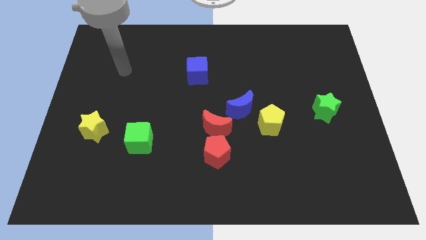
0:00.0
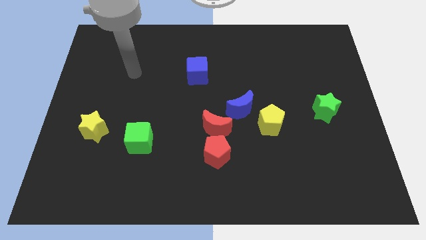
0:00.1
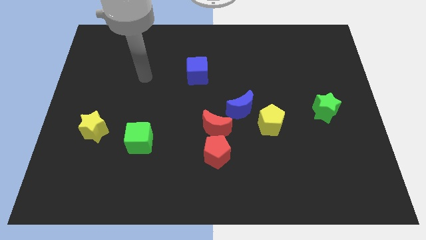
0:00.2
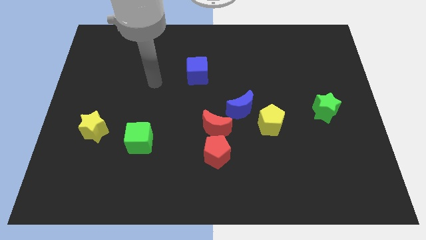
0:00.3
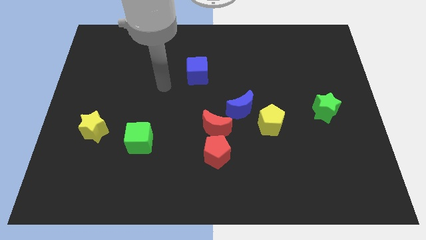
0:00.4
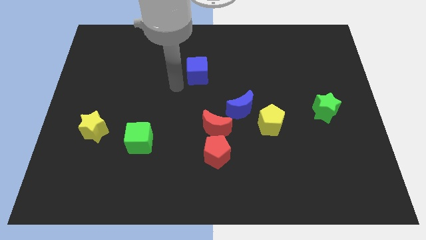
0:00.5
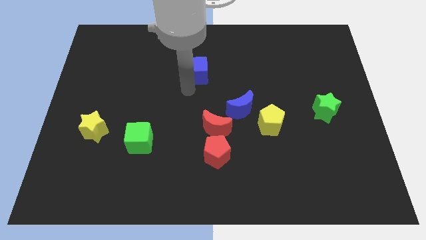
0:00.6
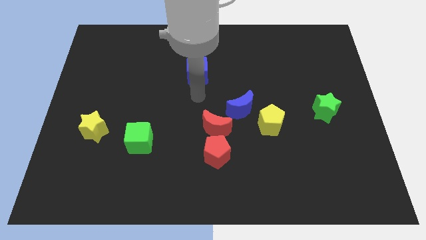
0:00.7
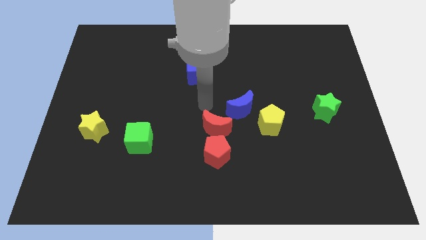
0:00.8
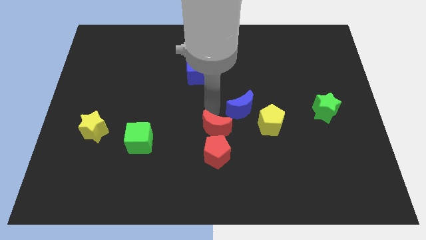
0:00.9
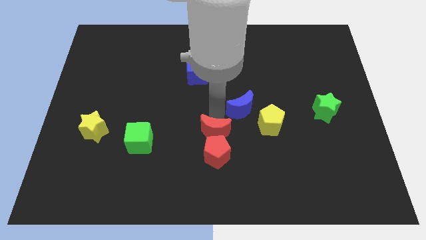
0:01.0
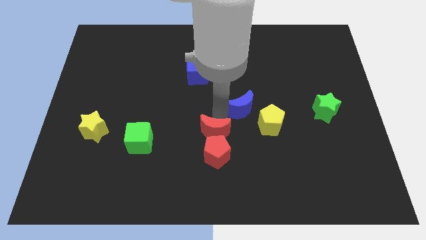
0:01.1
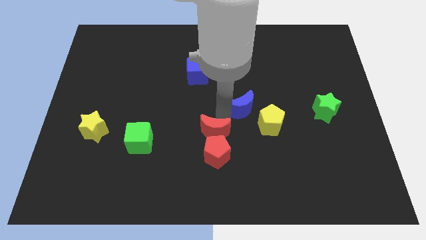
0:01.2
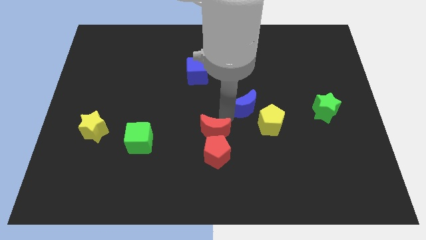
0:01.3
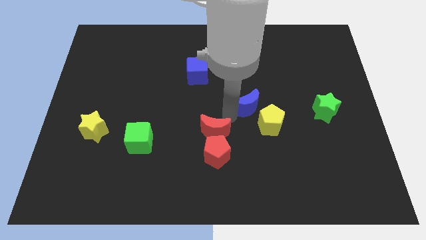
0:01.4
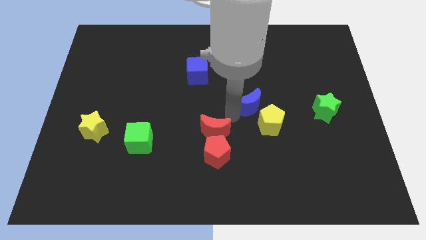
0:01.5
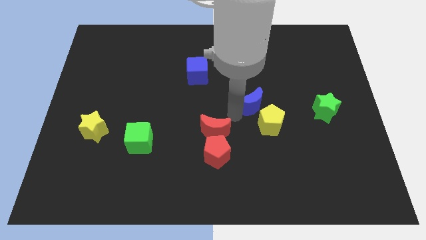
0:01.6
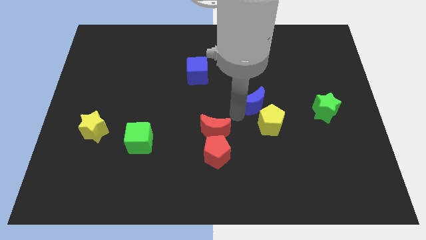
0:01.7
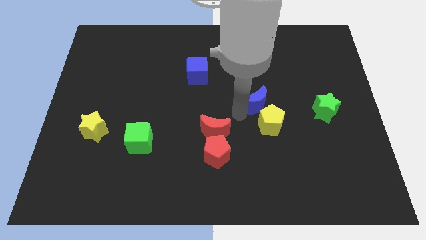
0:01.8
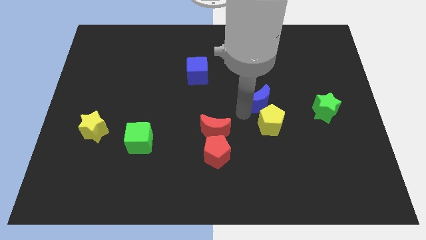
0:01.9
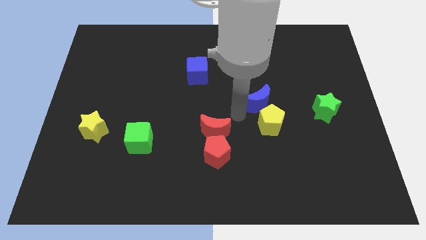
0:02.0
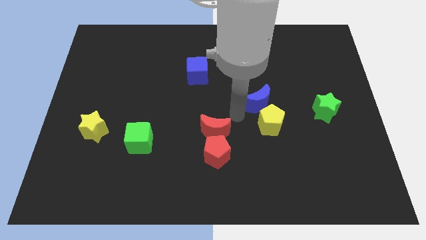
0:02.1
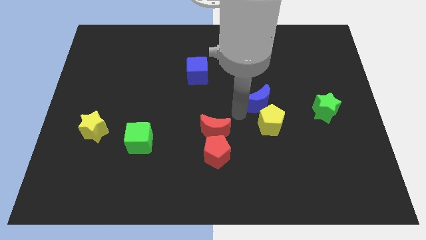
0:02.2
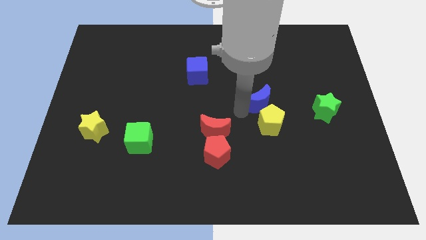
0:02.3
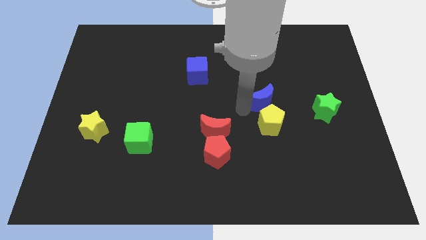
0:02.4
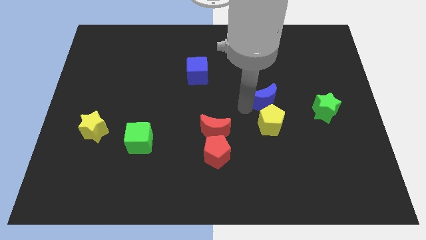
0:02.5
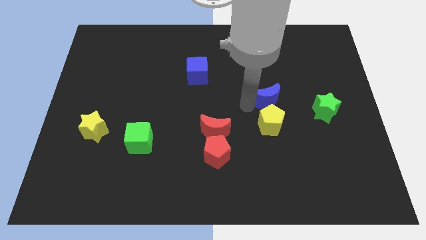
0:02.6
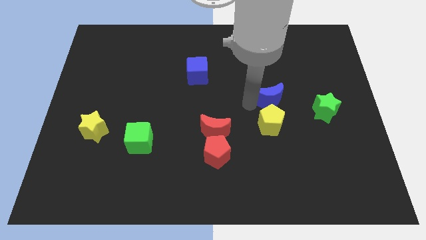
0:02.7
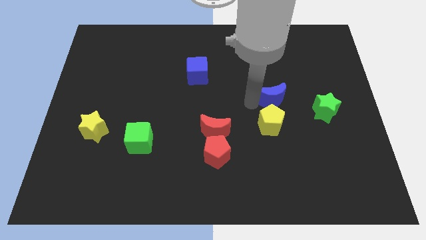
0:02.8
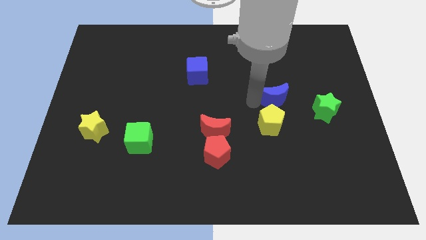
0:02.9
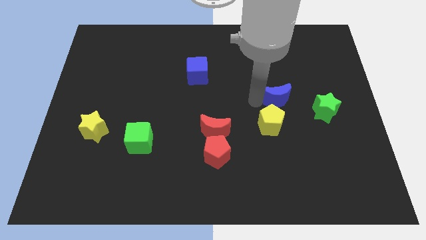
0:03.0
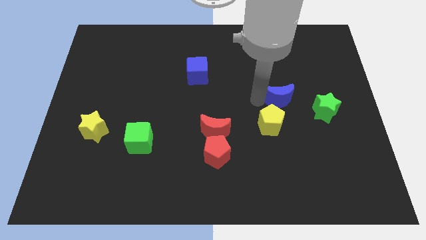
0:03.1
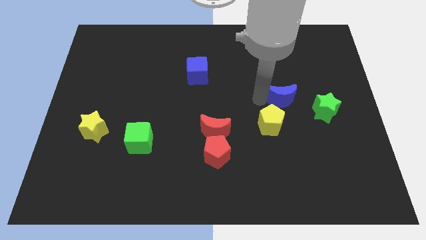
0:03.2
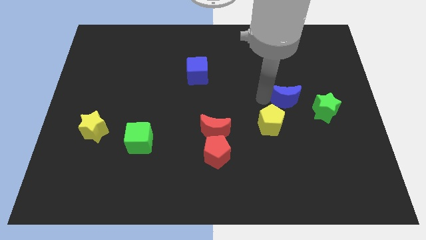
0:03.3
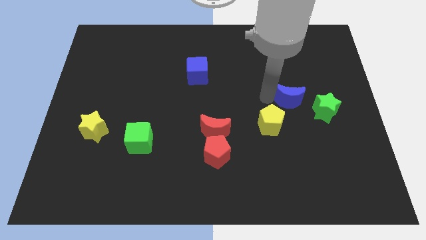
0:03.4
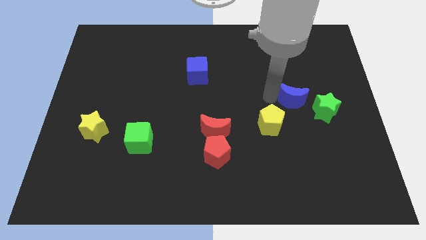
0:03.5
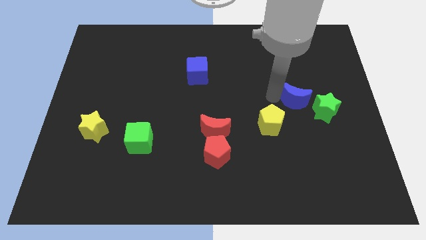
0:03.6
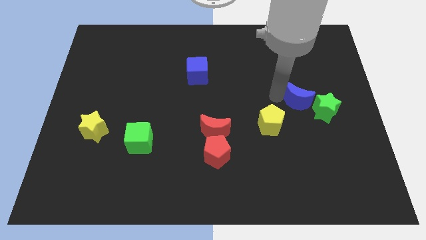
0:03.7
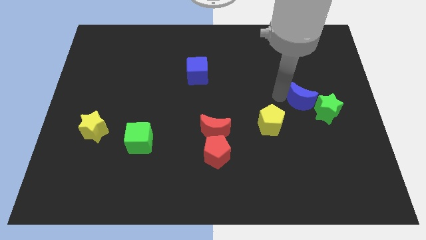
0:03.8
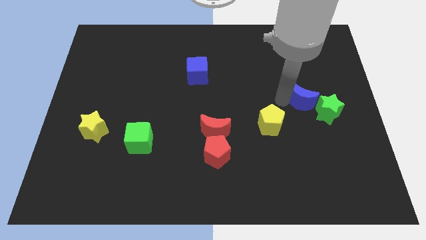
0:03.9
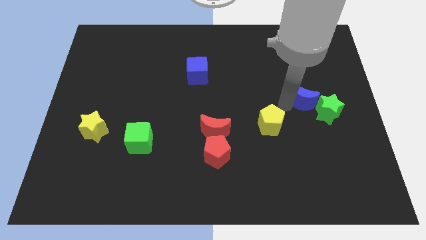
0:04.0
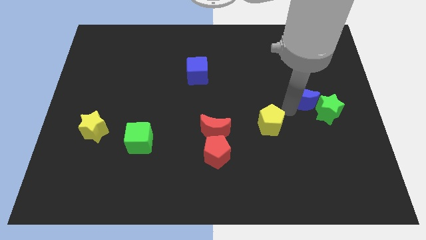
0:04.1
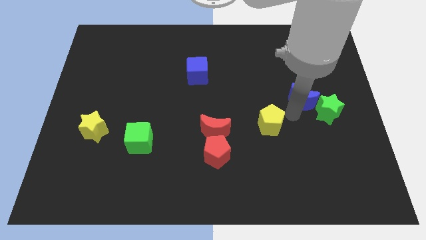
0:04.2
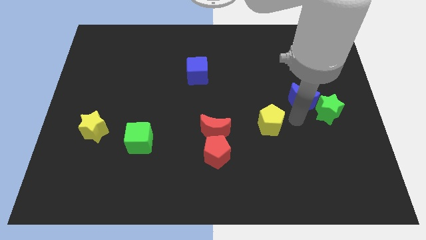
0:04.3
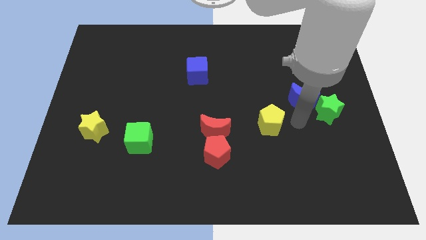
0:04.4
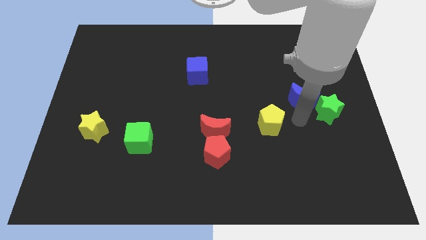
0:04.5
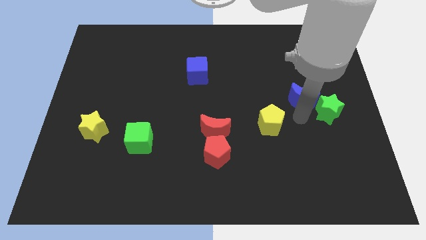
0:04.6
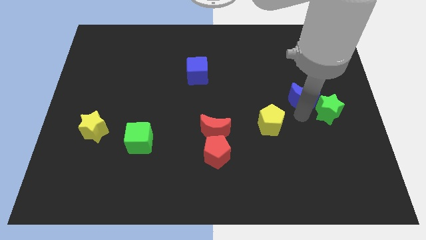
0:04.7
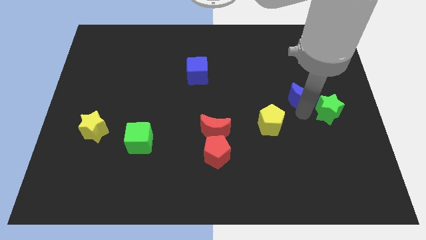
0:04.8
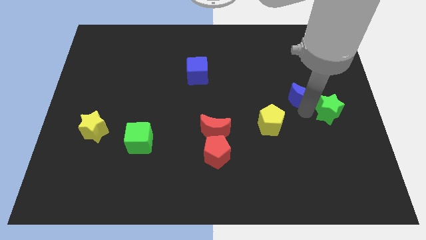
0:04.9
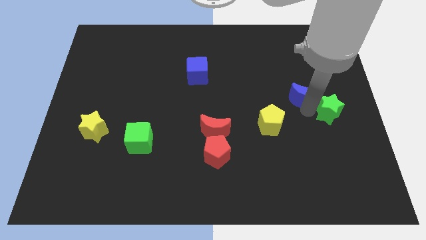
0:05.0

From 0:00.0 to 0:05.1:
move the blue moon to the top of the green star

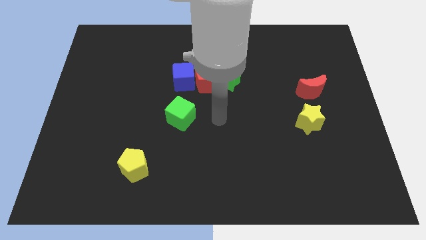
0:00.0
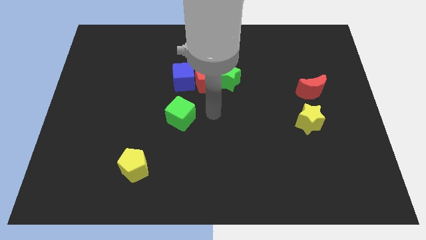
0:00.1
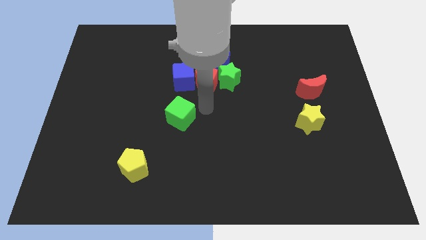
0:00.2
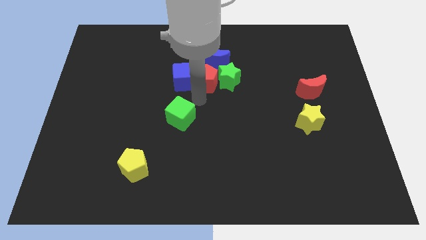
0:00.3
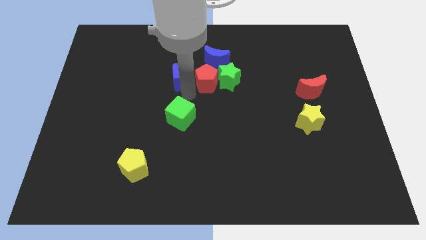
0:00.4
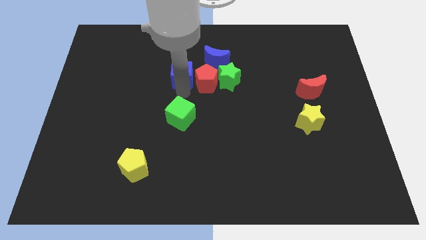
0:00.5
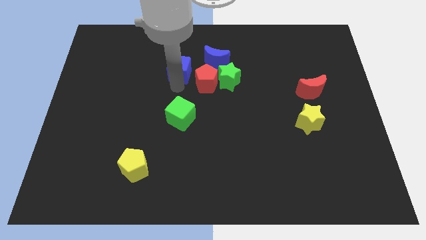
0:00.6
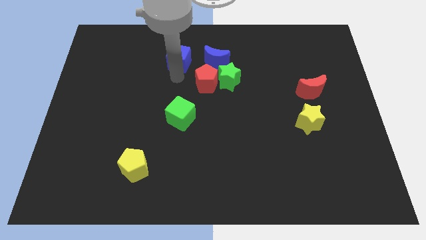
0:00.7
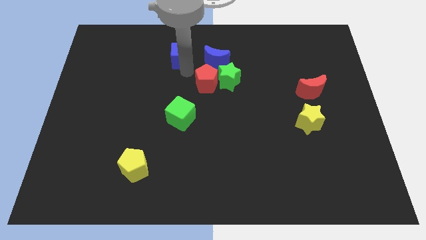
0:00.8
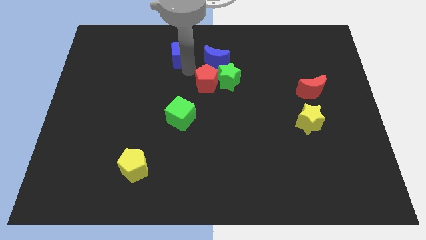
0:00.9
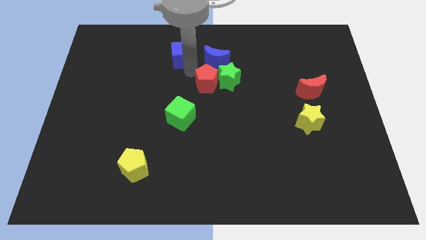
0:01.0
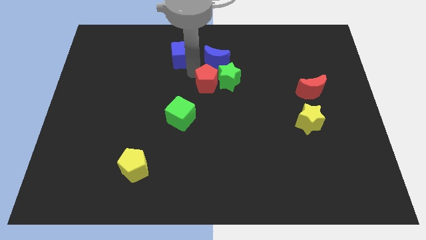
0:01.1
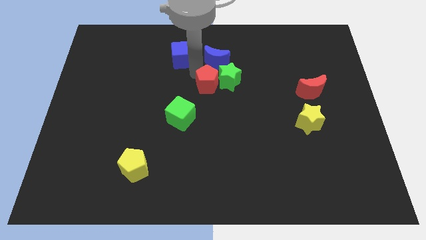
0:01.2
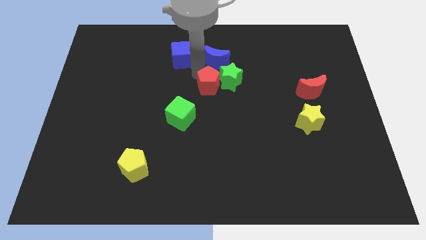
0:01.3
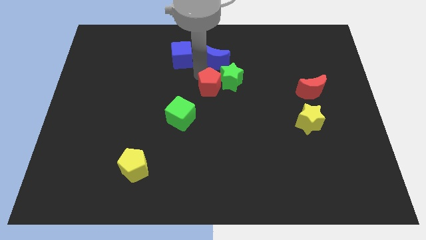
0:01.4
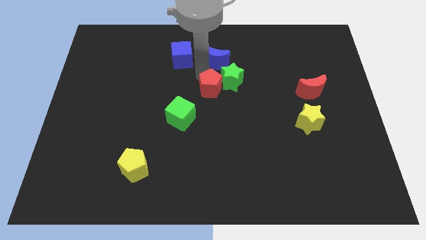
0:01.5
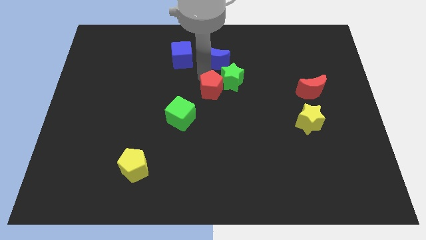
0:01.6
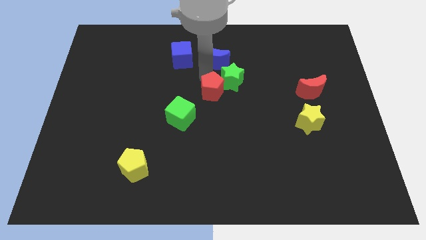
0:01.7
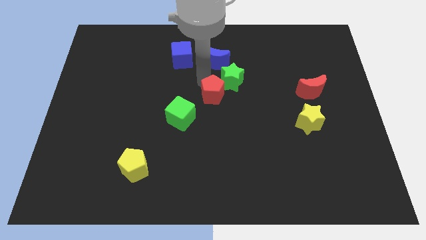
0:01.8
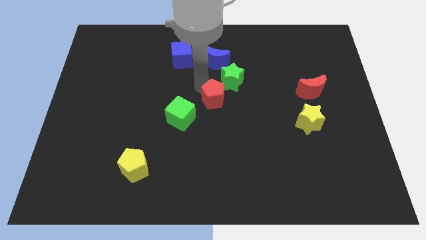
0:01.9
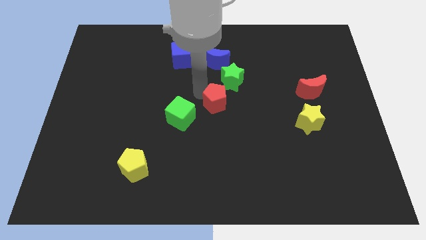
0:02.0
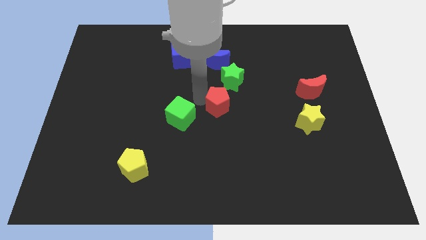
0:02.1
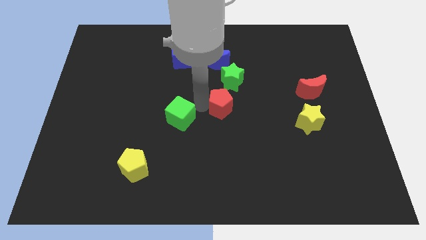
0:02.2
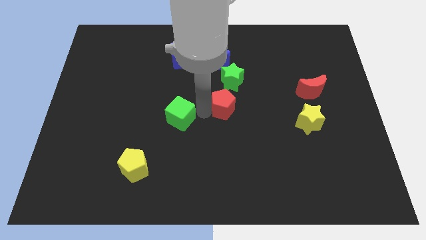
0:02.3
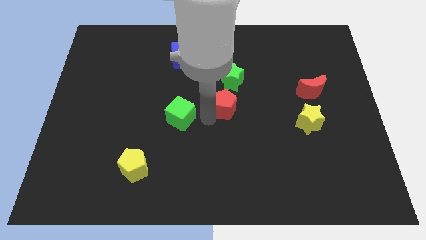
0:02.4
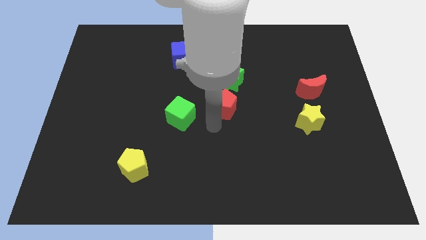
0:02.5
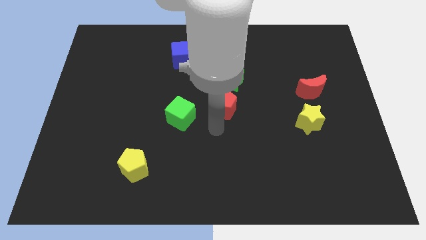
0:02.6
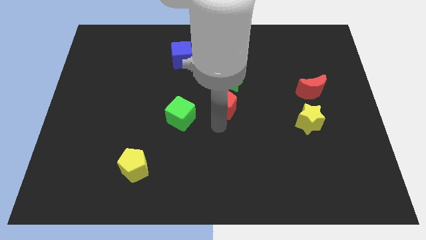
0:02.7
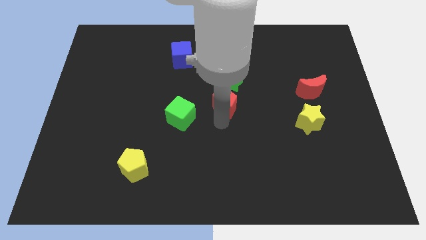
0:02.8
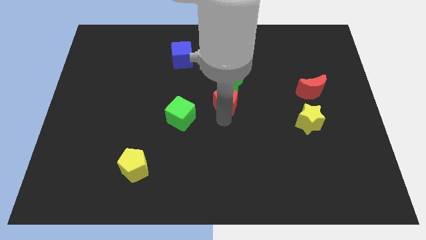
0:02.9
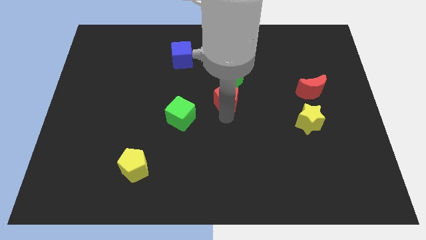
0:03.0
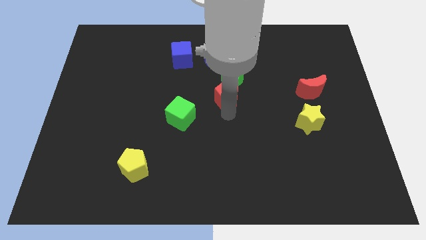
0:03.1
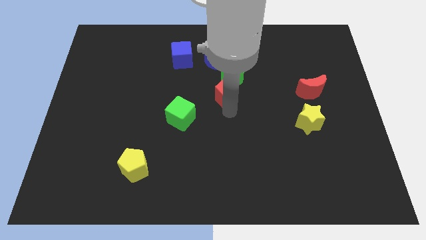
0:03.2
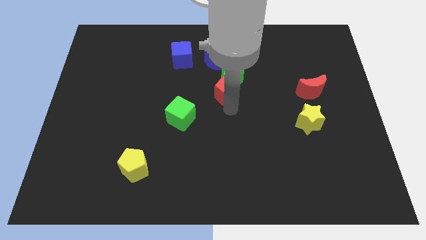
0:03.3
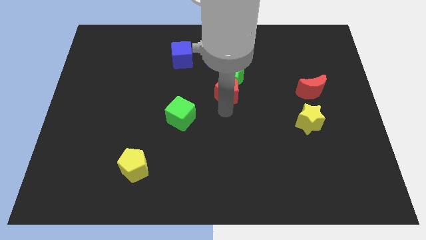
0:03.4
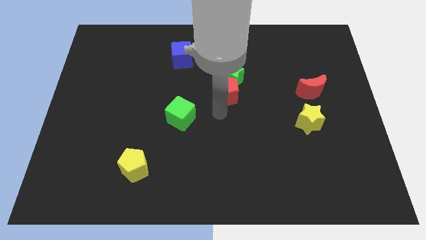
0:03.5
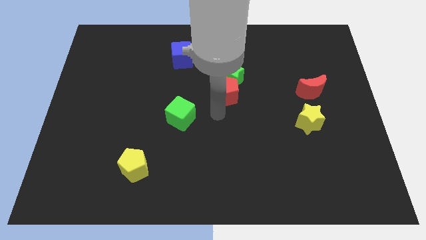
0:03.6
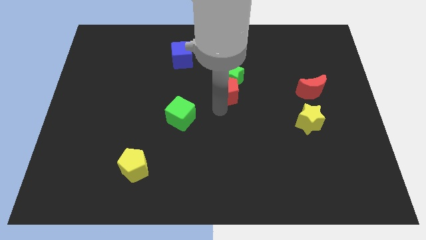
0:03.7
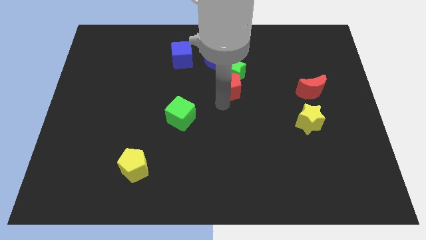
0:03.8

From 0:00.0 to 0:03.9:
slide the red pentagon to the bottom right side of the blue moon
